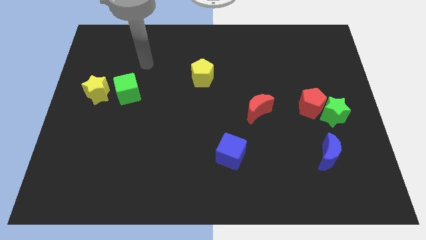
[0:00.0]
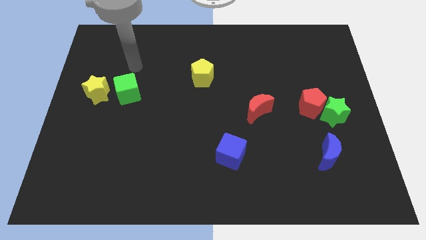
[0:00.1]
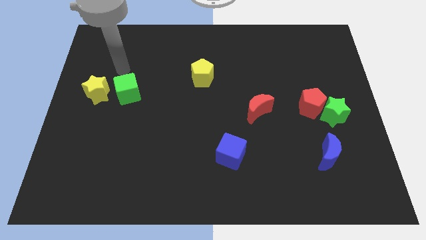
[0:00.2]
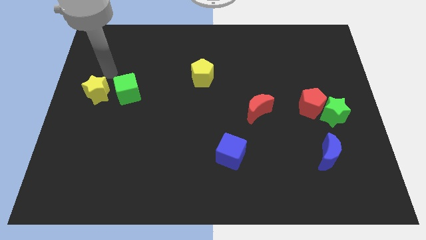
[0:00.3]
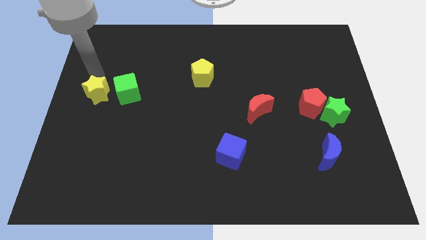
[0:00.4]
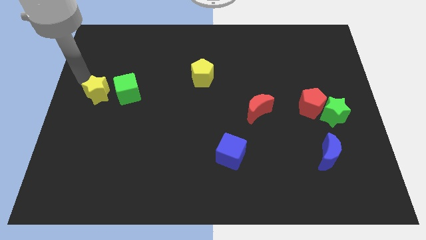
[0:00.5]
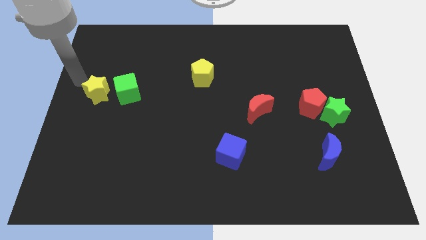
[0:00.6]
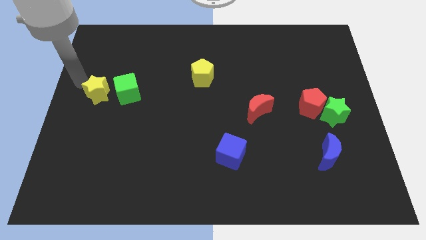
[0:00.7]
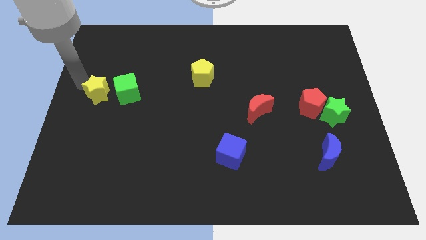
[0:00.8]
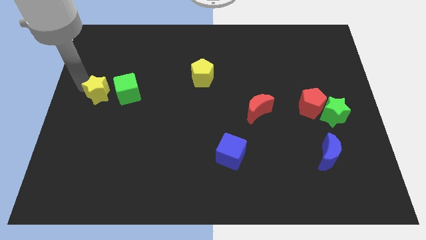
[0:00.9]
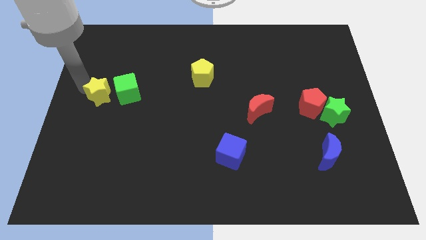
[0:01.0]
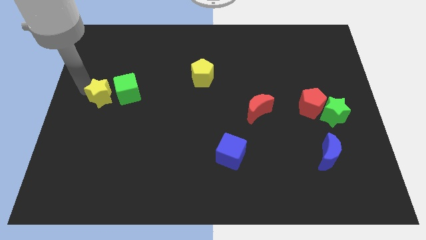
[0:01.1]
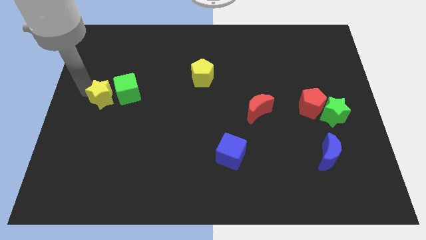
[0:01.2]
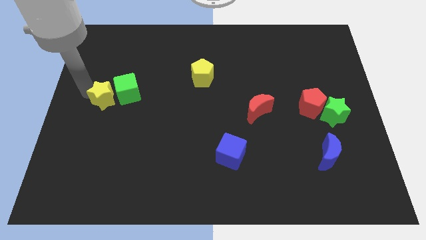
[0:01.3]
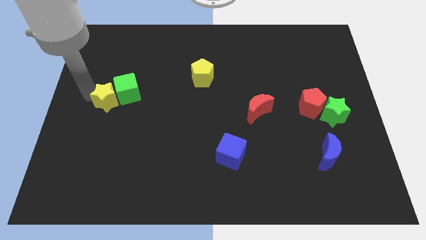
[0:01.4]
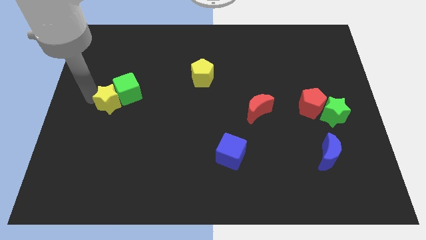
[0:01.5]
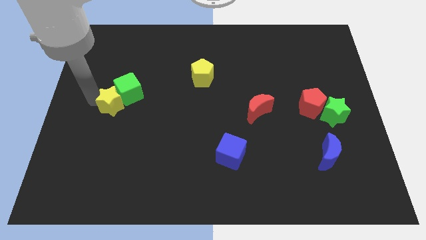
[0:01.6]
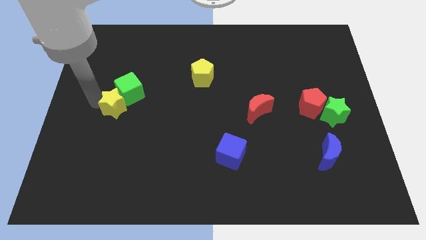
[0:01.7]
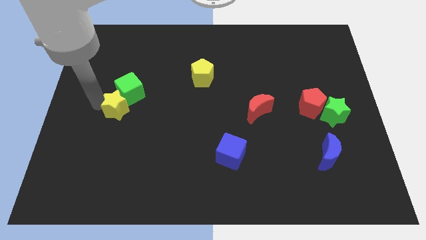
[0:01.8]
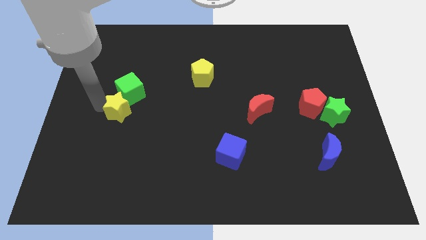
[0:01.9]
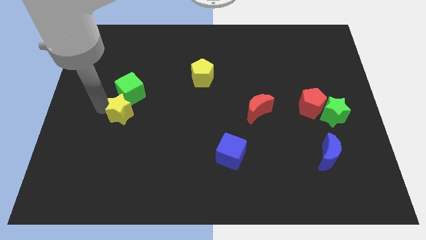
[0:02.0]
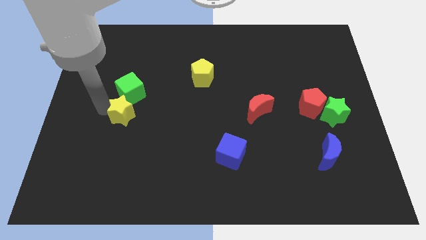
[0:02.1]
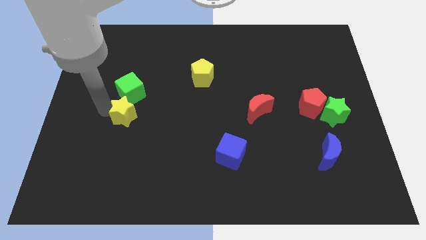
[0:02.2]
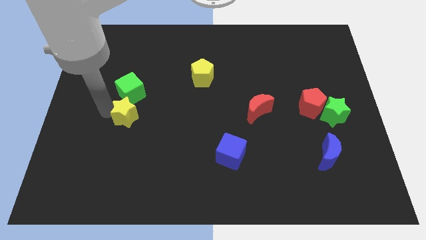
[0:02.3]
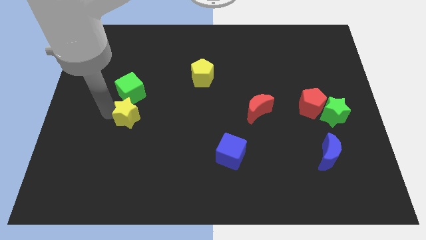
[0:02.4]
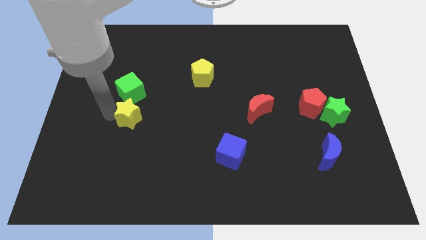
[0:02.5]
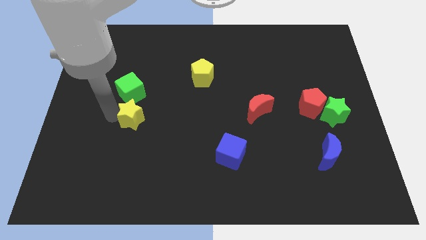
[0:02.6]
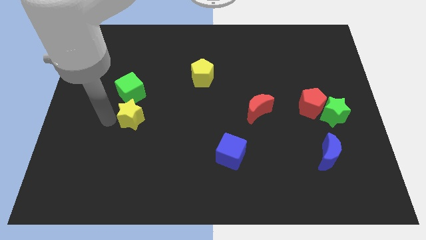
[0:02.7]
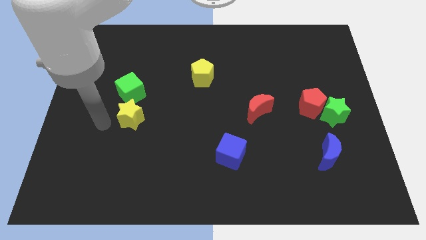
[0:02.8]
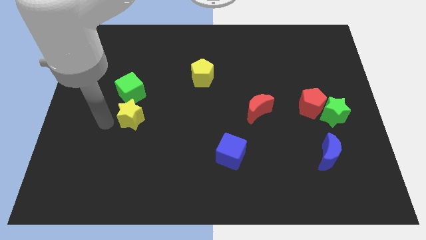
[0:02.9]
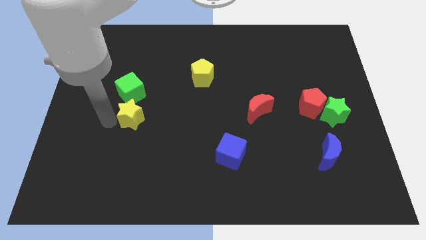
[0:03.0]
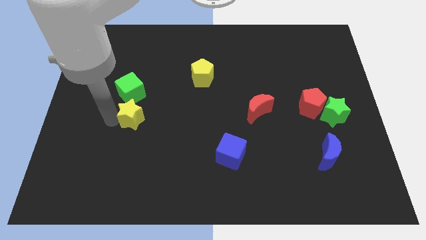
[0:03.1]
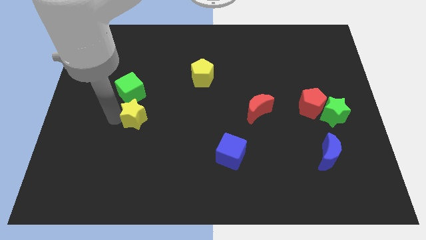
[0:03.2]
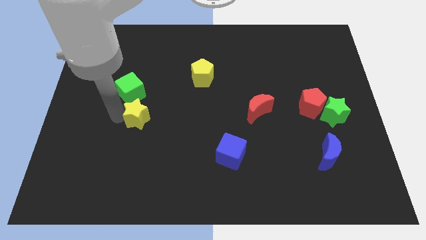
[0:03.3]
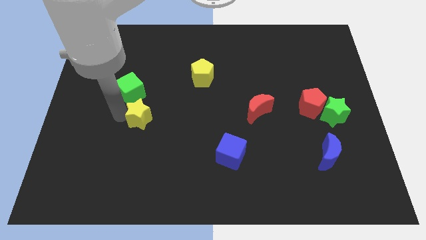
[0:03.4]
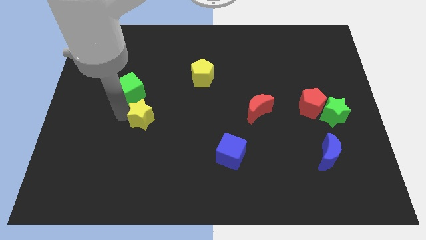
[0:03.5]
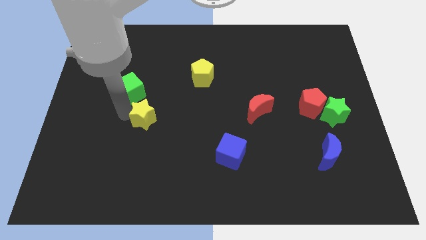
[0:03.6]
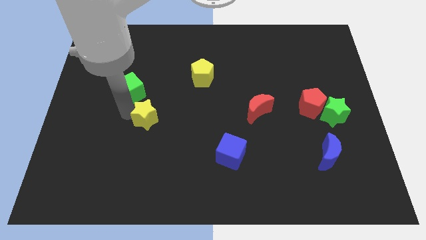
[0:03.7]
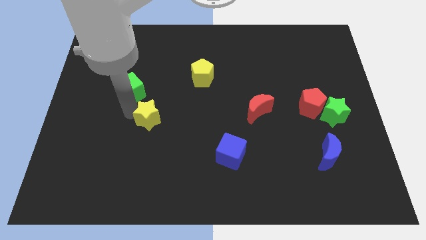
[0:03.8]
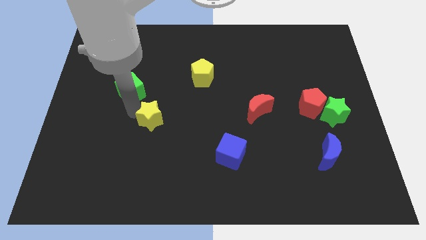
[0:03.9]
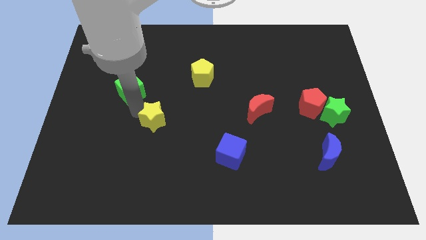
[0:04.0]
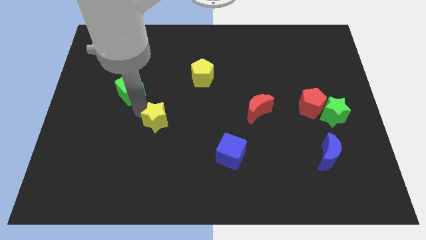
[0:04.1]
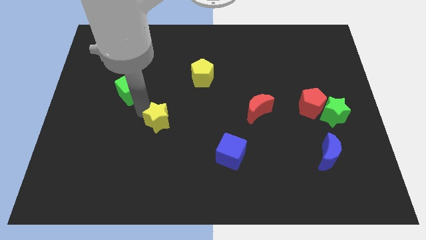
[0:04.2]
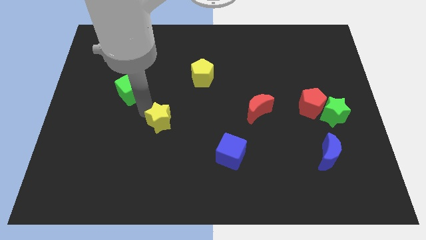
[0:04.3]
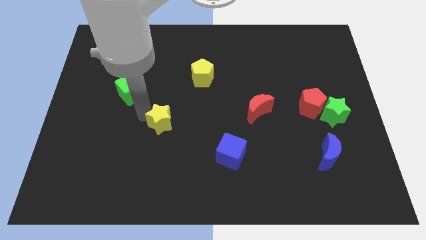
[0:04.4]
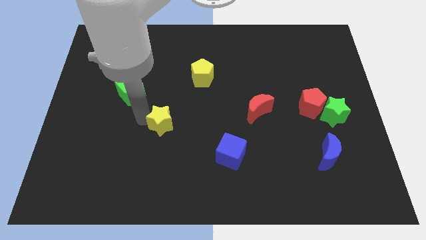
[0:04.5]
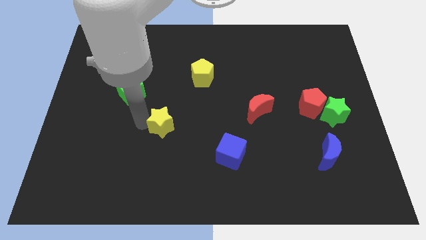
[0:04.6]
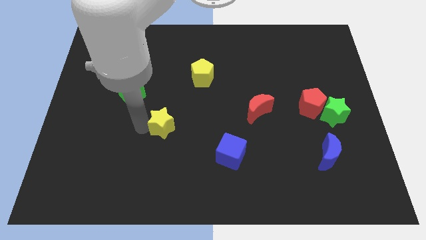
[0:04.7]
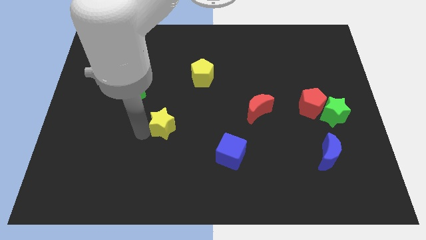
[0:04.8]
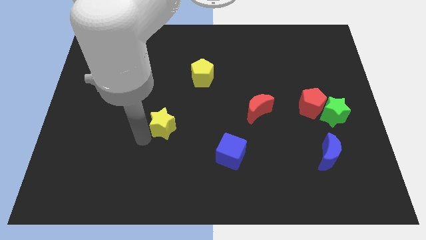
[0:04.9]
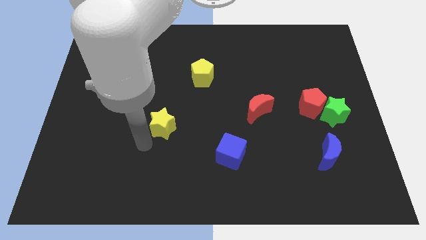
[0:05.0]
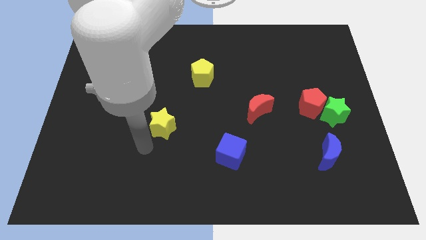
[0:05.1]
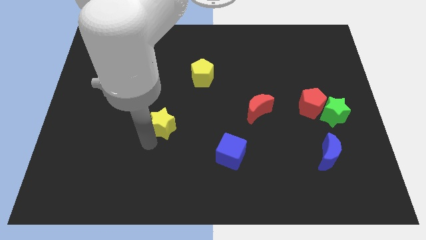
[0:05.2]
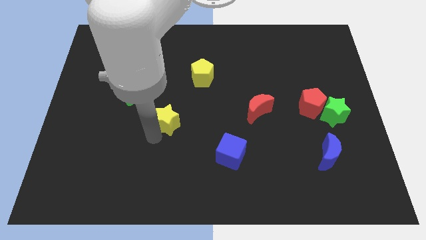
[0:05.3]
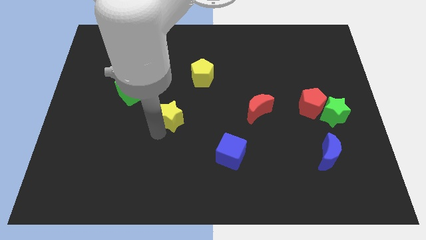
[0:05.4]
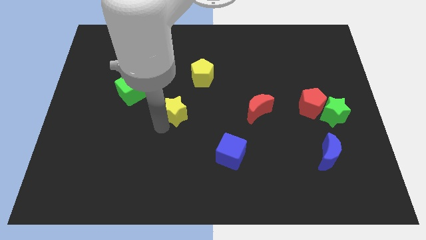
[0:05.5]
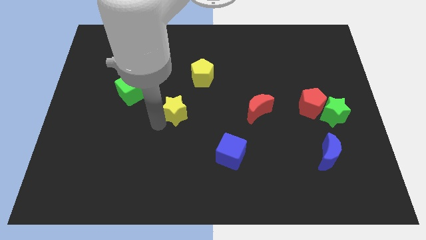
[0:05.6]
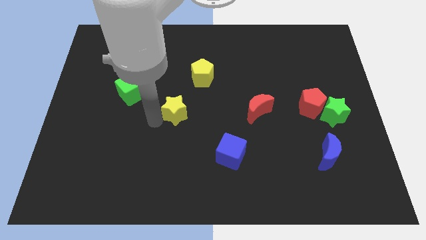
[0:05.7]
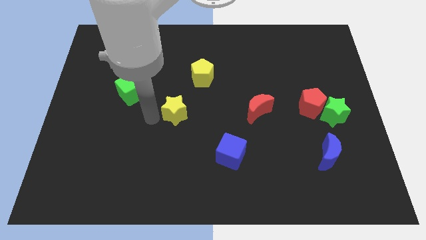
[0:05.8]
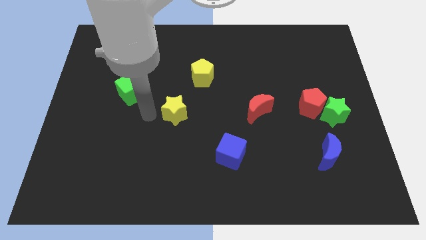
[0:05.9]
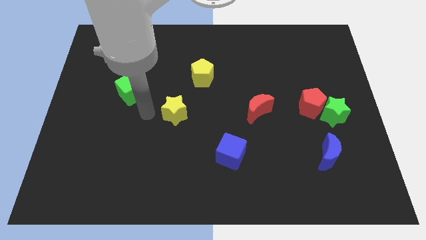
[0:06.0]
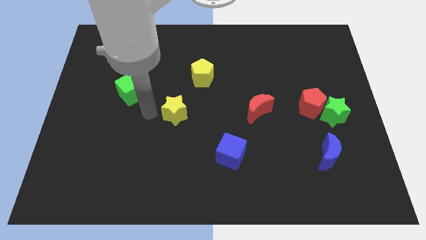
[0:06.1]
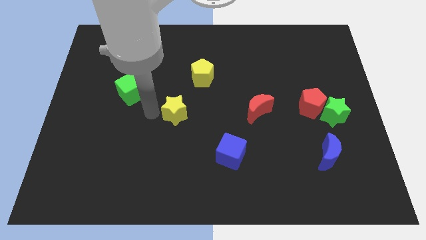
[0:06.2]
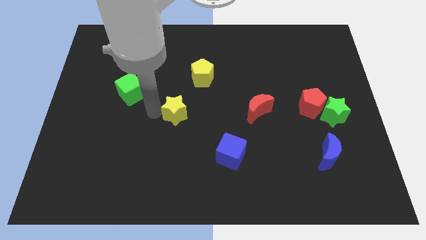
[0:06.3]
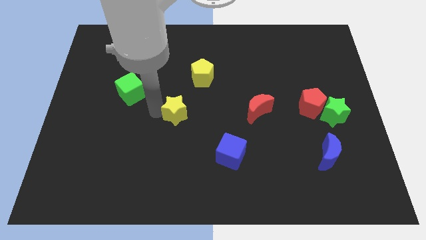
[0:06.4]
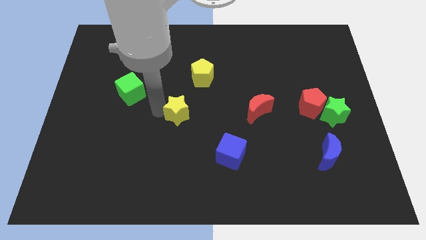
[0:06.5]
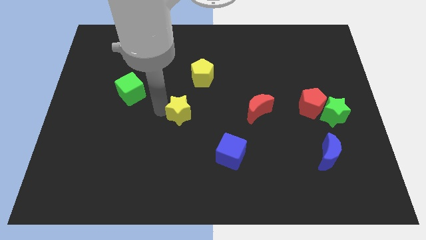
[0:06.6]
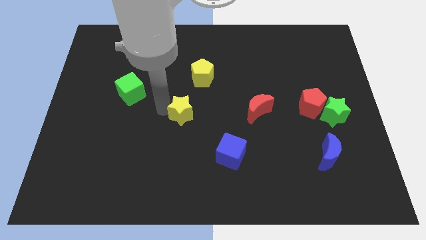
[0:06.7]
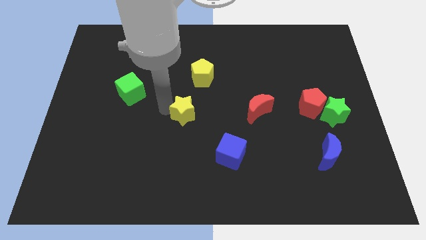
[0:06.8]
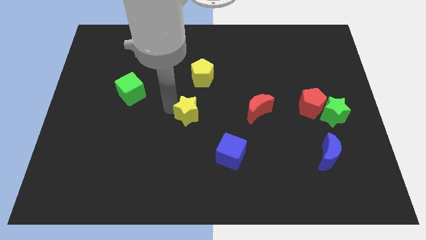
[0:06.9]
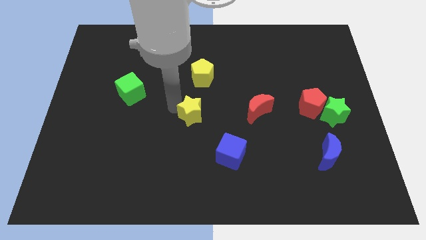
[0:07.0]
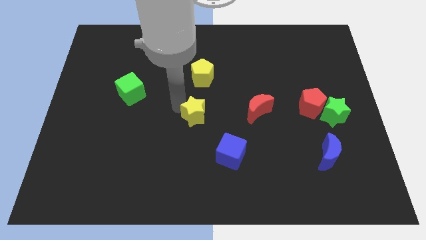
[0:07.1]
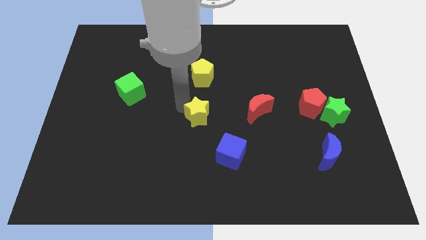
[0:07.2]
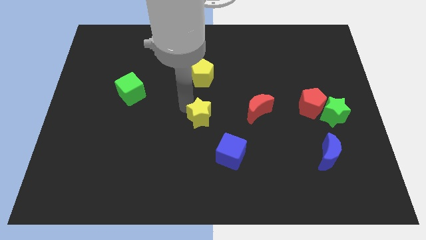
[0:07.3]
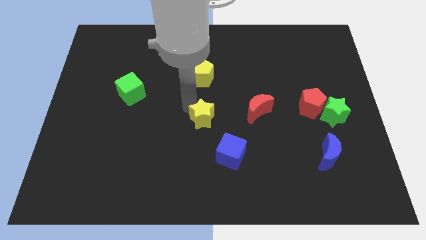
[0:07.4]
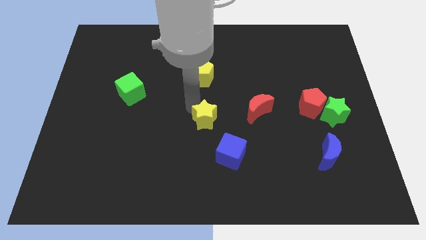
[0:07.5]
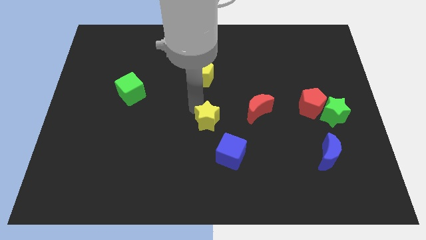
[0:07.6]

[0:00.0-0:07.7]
put the yellow star to the top side of the blue cube
